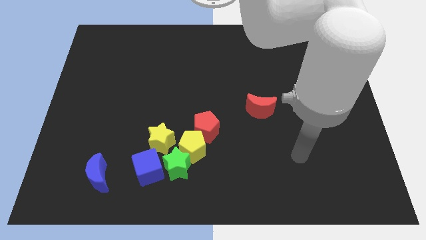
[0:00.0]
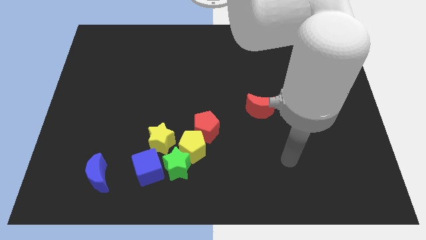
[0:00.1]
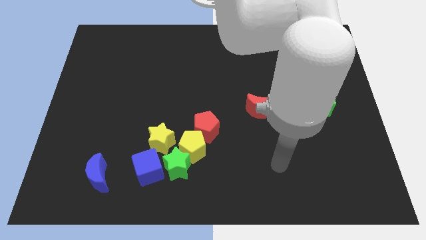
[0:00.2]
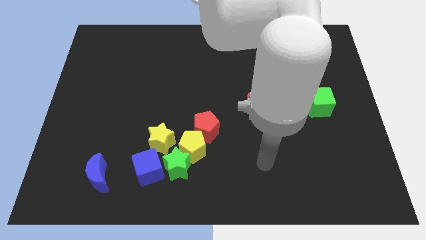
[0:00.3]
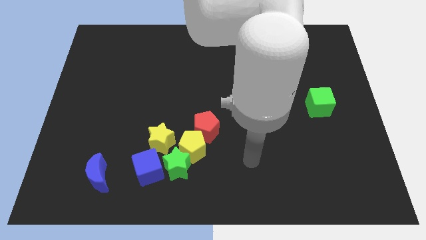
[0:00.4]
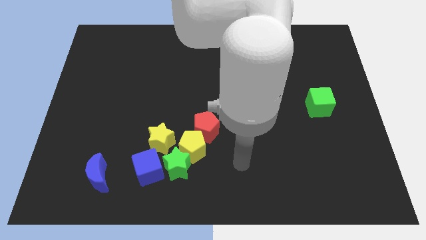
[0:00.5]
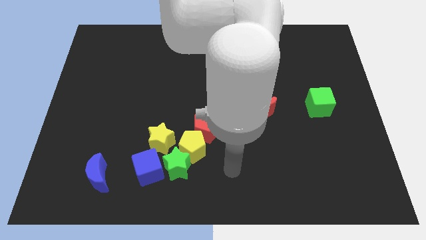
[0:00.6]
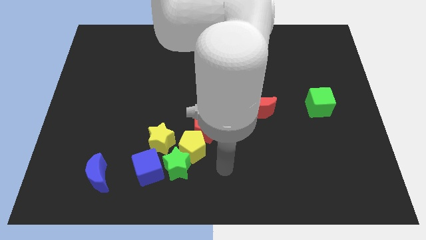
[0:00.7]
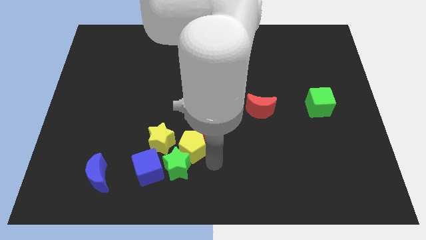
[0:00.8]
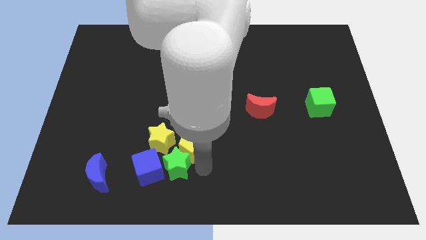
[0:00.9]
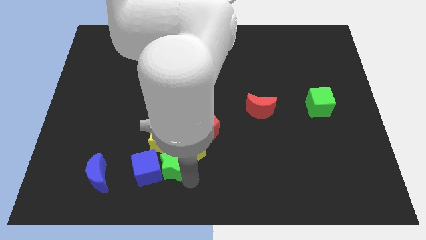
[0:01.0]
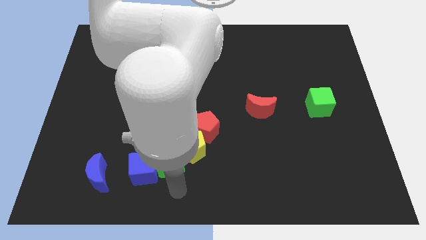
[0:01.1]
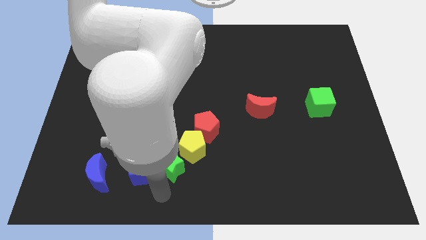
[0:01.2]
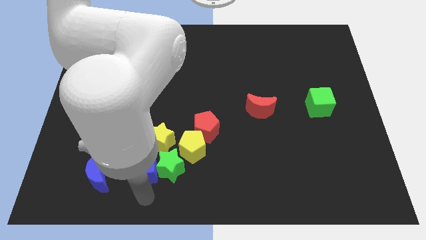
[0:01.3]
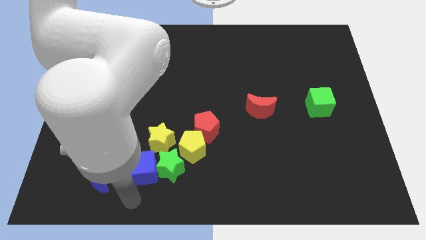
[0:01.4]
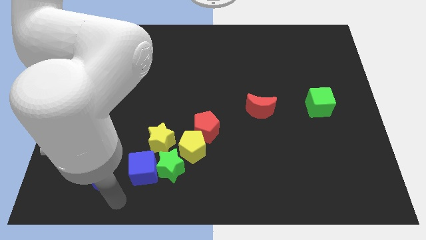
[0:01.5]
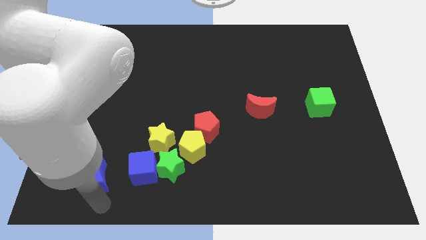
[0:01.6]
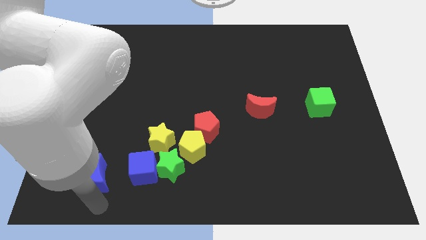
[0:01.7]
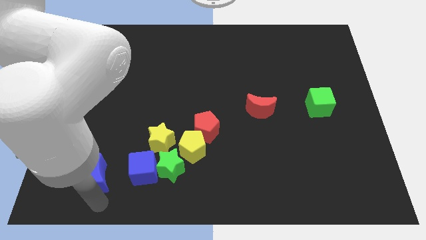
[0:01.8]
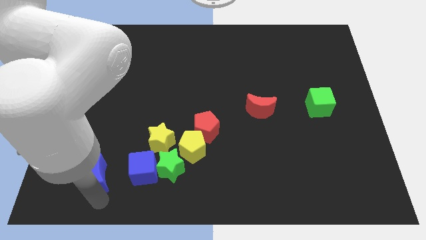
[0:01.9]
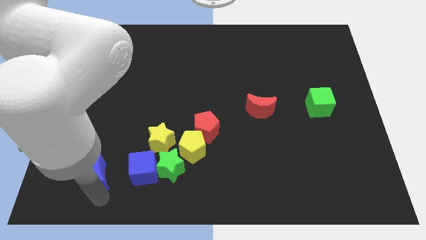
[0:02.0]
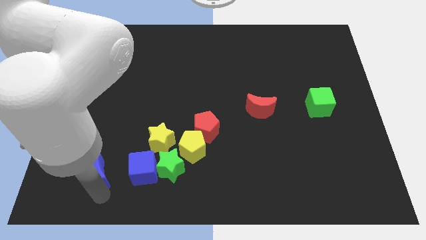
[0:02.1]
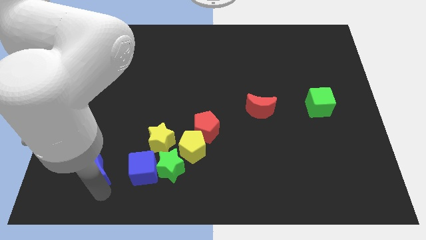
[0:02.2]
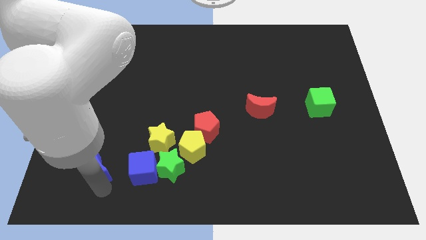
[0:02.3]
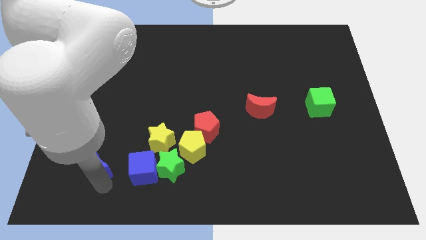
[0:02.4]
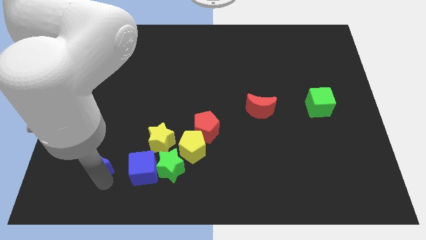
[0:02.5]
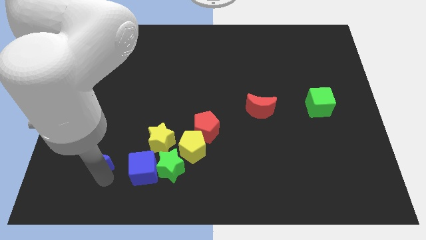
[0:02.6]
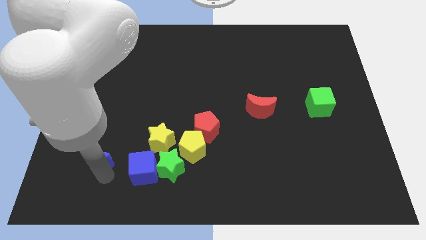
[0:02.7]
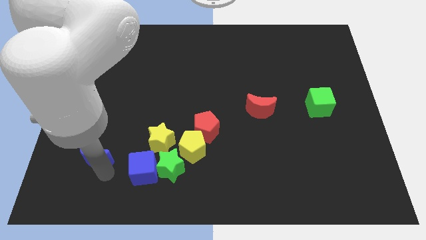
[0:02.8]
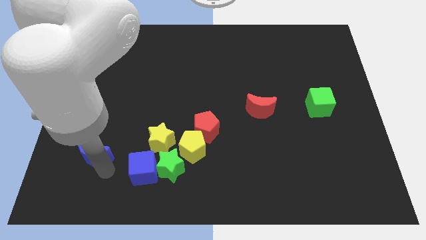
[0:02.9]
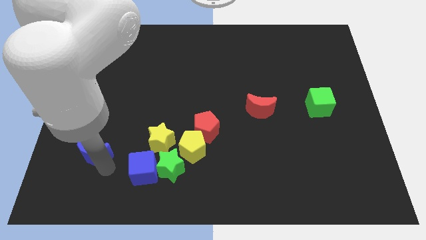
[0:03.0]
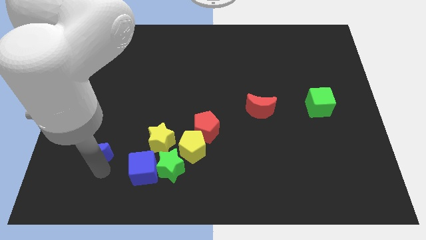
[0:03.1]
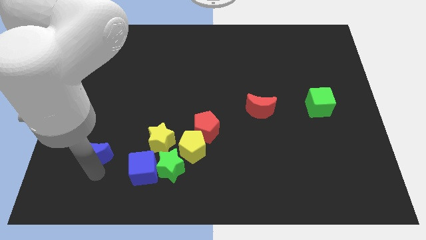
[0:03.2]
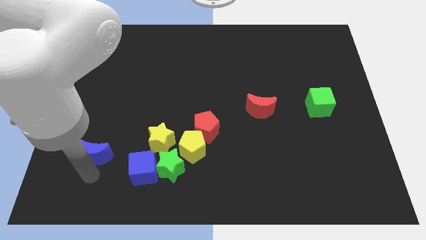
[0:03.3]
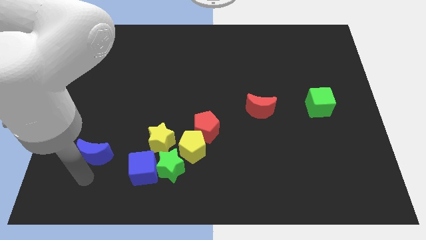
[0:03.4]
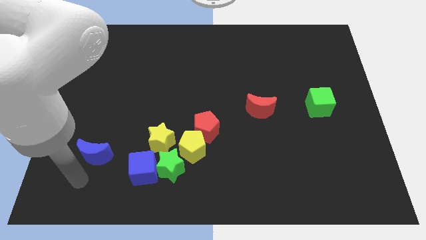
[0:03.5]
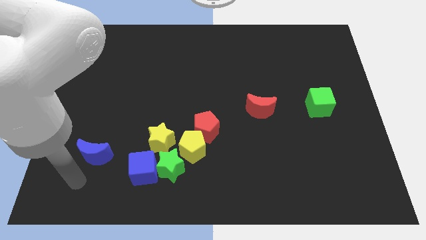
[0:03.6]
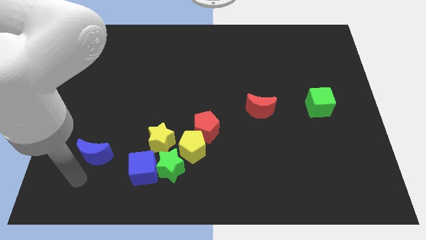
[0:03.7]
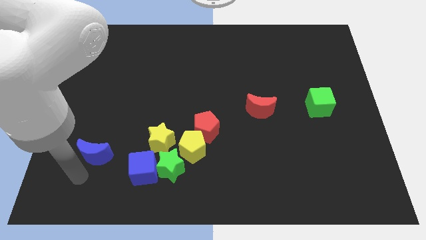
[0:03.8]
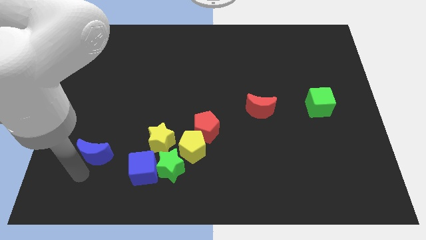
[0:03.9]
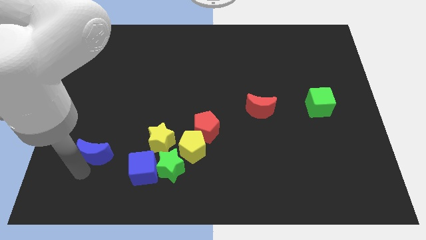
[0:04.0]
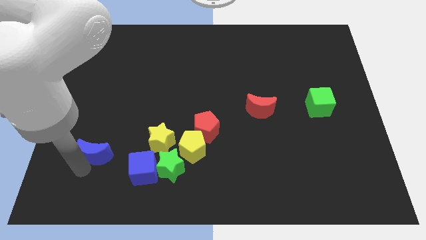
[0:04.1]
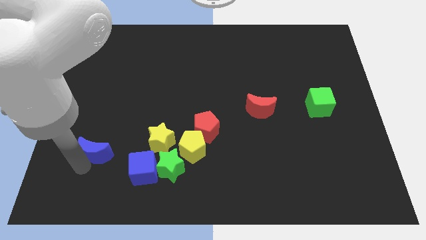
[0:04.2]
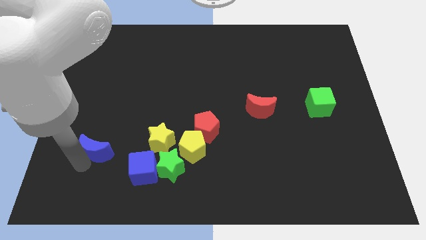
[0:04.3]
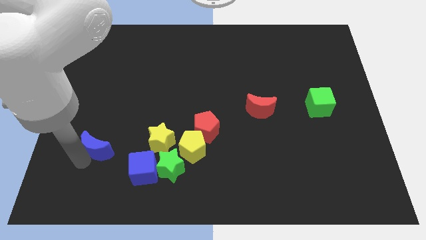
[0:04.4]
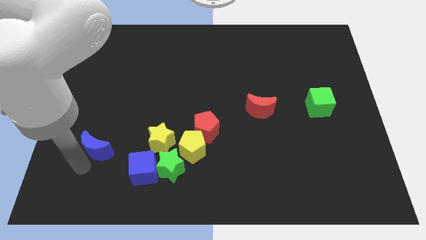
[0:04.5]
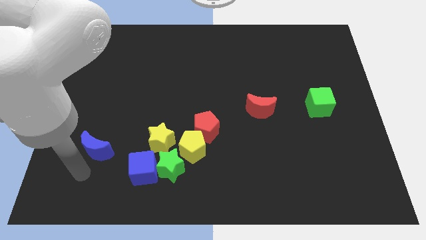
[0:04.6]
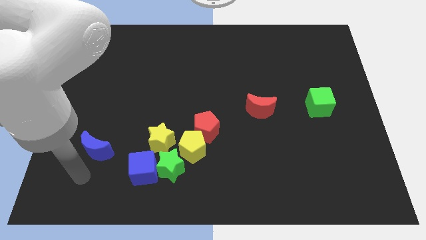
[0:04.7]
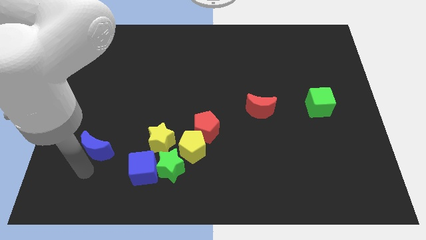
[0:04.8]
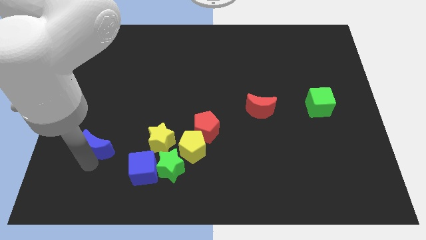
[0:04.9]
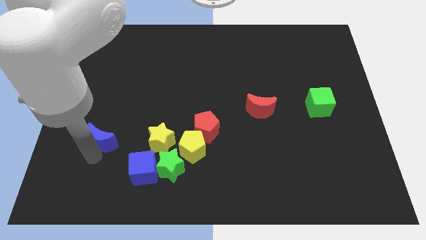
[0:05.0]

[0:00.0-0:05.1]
push the blue moon somewhat upwards

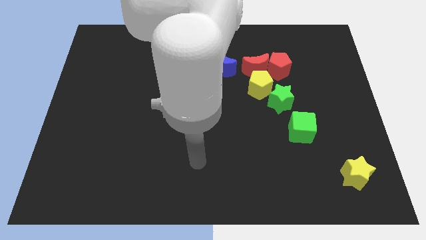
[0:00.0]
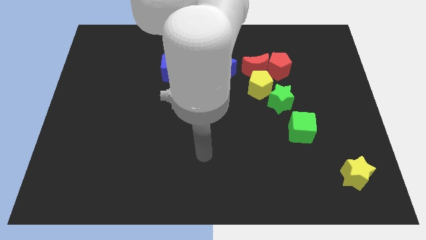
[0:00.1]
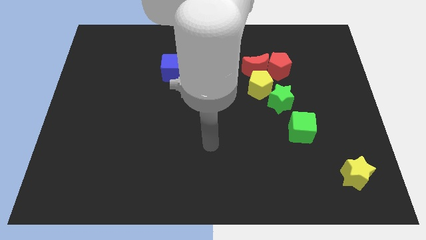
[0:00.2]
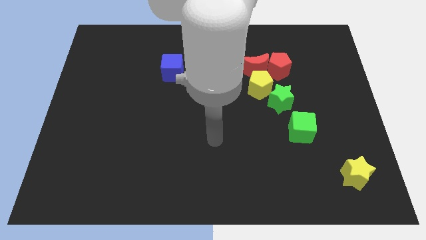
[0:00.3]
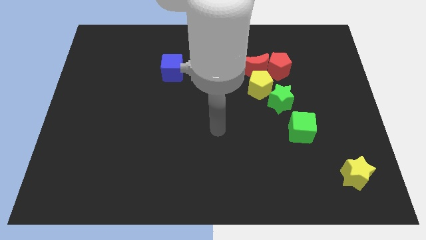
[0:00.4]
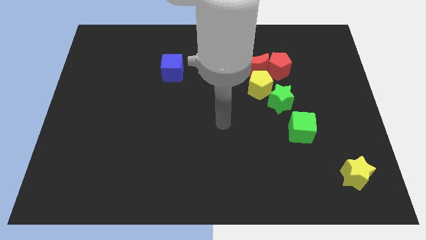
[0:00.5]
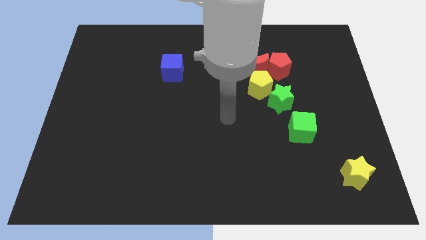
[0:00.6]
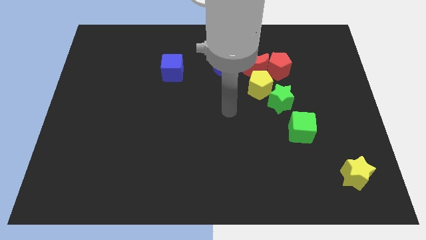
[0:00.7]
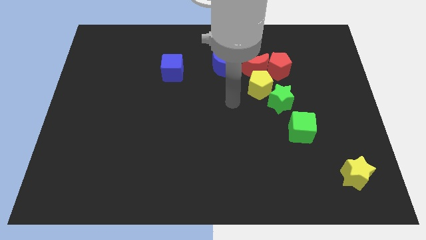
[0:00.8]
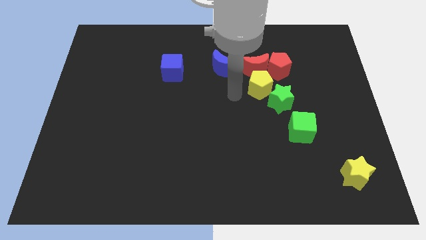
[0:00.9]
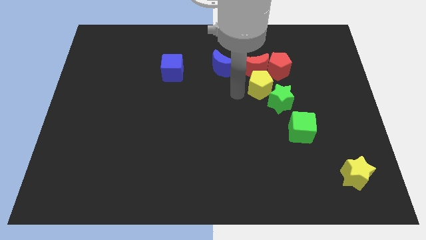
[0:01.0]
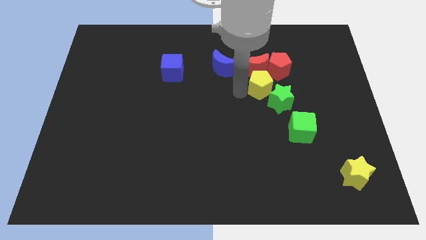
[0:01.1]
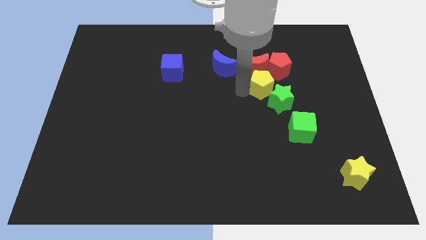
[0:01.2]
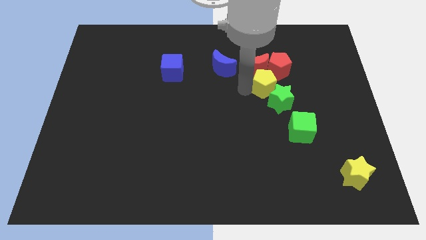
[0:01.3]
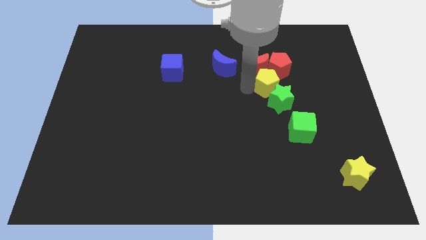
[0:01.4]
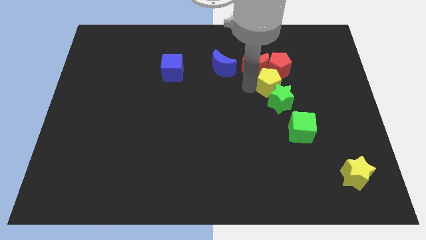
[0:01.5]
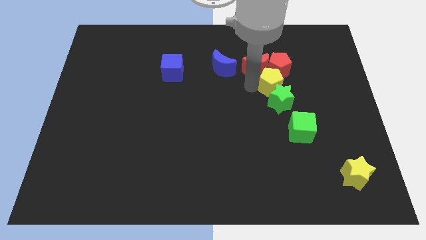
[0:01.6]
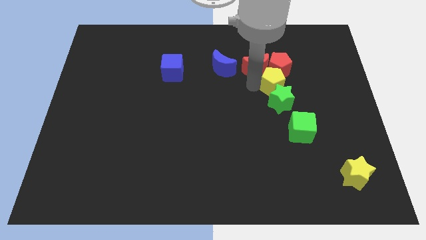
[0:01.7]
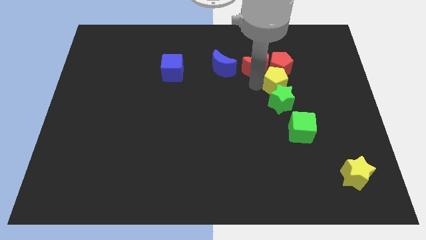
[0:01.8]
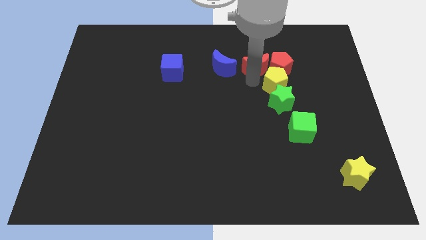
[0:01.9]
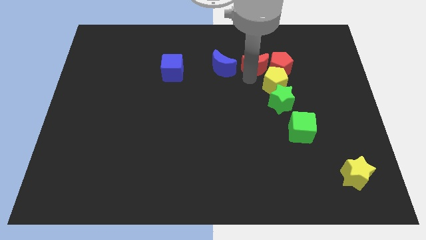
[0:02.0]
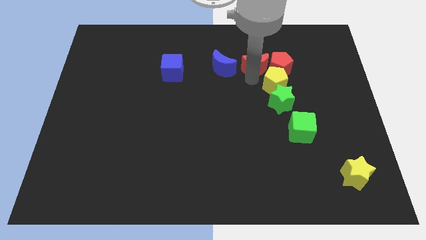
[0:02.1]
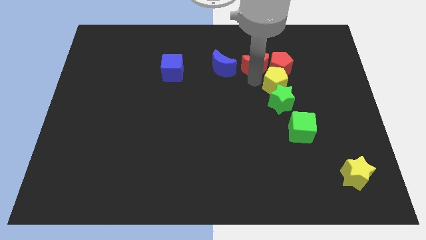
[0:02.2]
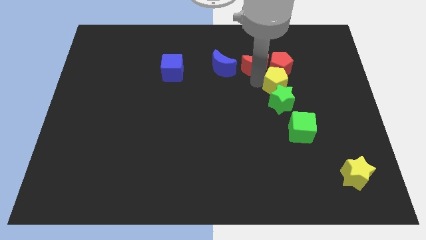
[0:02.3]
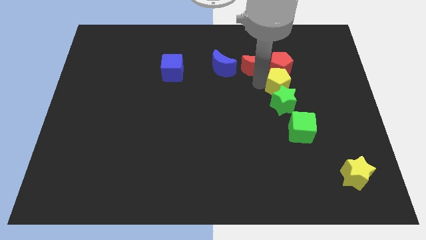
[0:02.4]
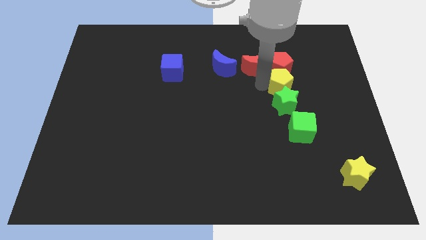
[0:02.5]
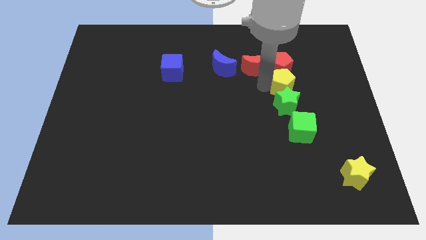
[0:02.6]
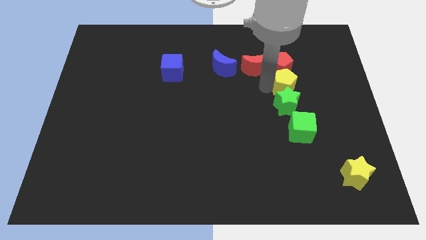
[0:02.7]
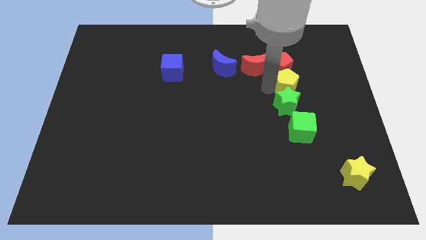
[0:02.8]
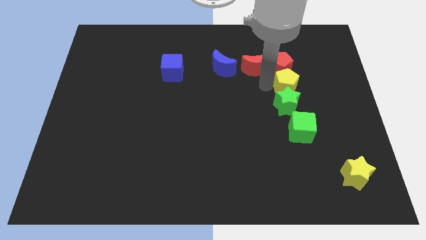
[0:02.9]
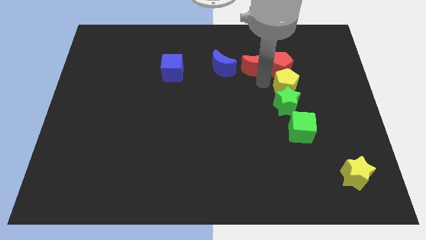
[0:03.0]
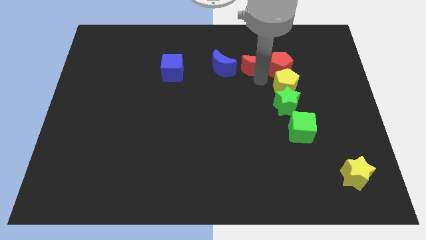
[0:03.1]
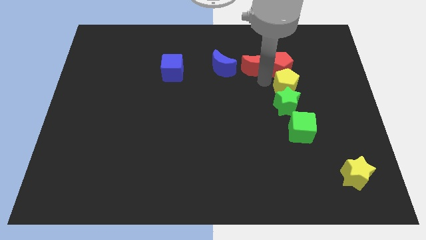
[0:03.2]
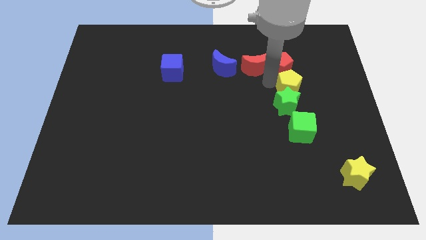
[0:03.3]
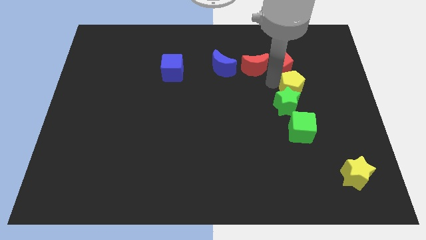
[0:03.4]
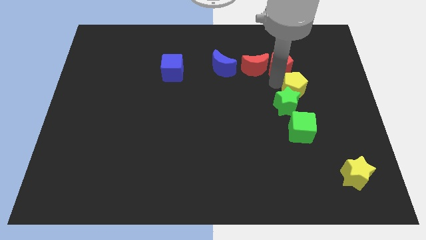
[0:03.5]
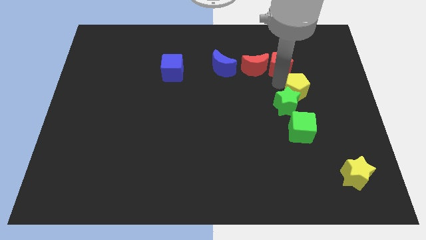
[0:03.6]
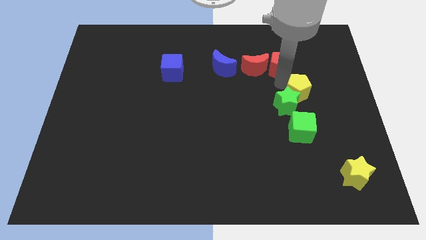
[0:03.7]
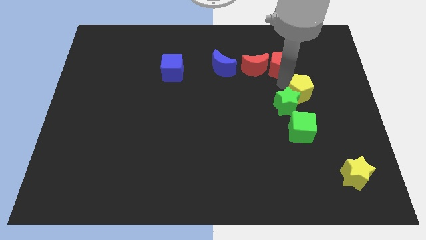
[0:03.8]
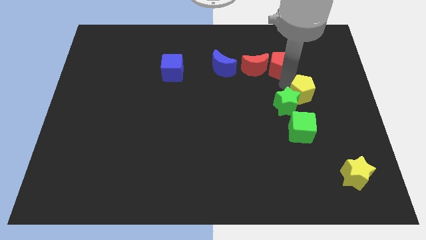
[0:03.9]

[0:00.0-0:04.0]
slightly slide the yellow pentagon downwards and to the right diagonally
